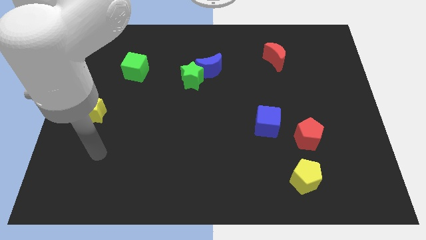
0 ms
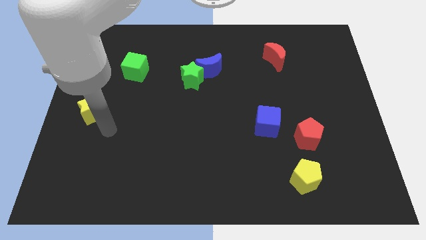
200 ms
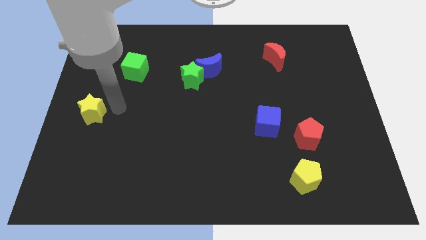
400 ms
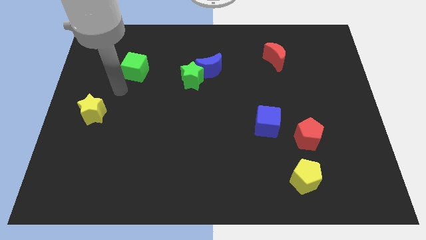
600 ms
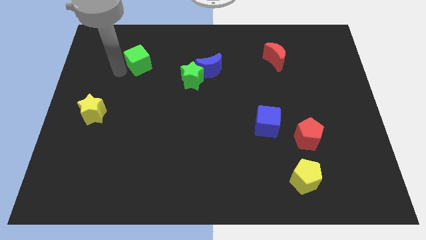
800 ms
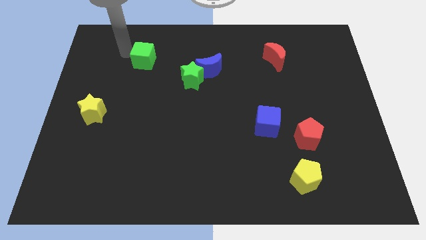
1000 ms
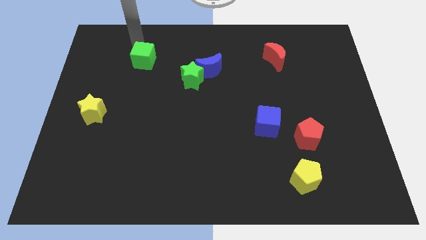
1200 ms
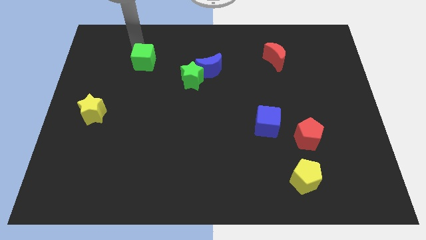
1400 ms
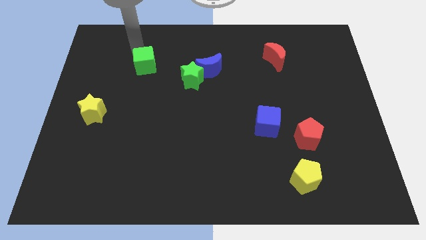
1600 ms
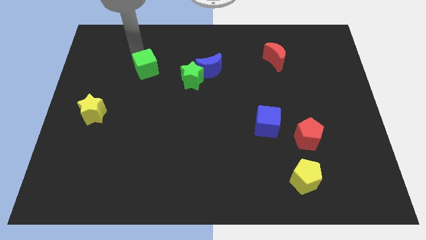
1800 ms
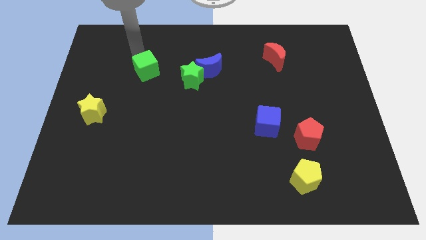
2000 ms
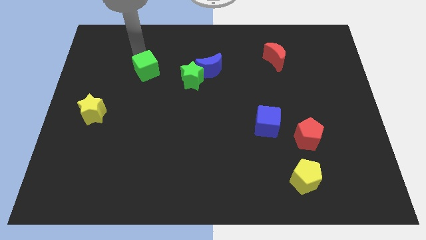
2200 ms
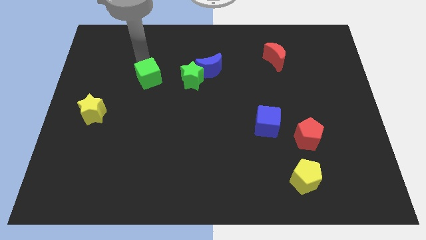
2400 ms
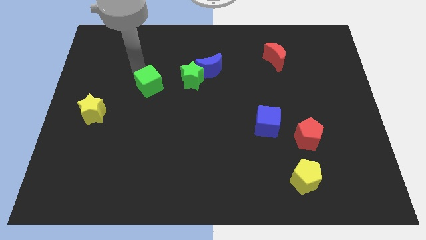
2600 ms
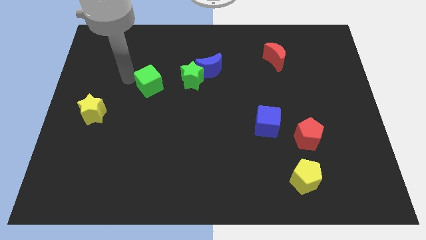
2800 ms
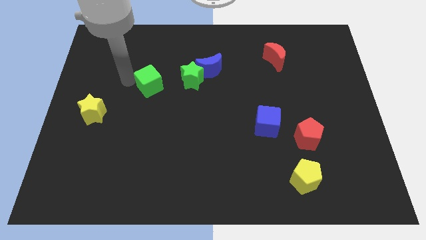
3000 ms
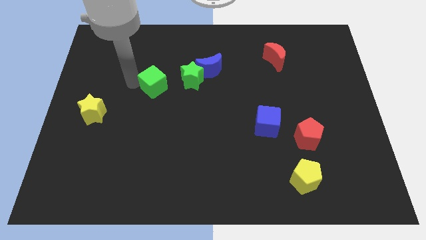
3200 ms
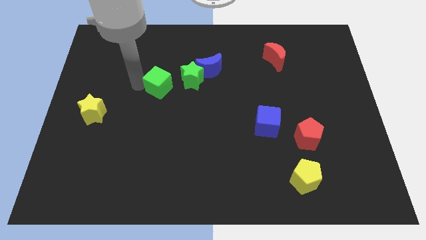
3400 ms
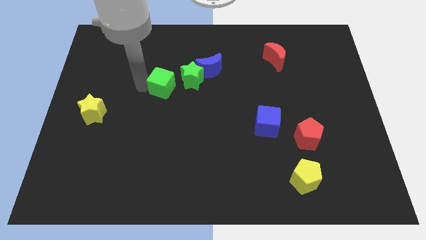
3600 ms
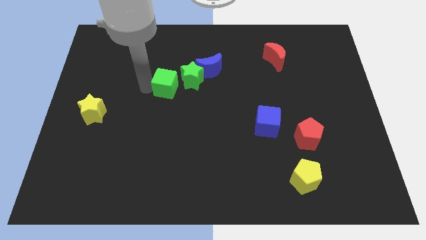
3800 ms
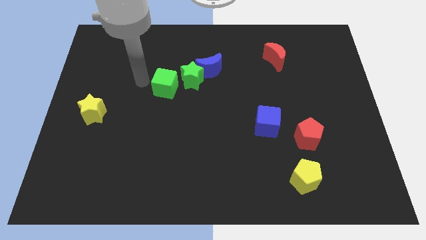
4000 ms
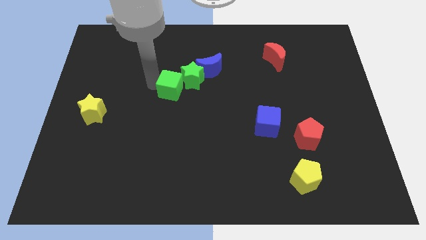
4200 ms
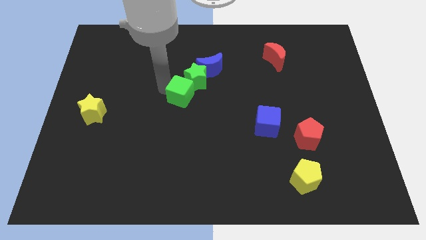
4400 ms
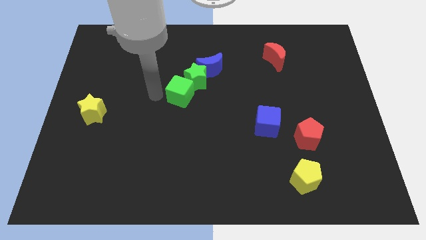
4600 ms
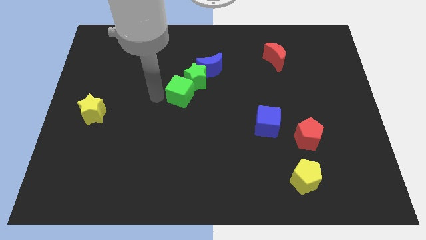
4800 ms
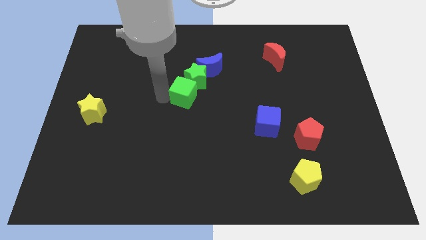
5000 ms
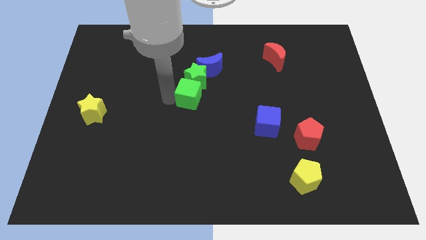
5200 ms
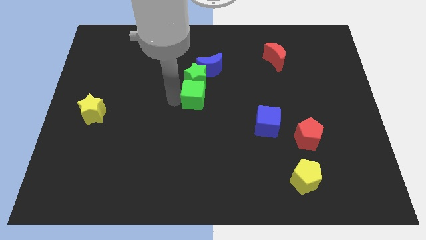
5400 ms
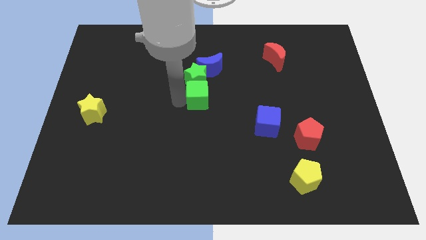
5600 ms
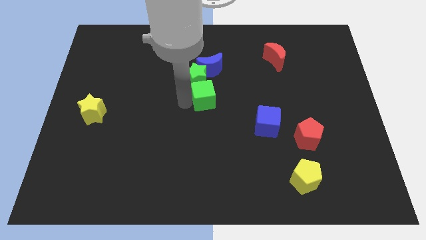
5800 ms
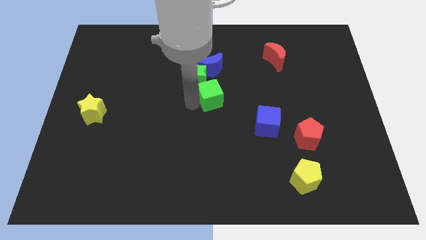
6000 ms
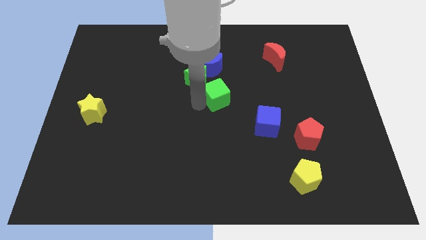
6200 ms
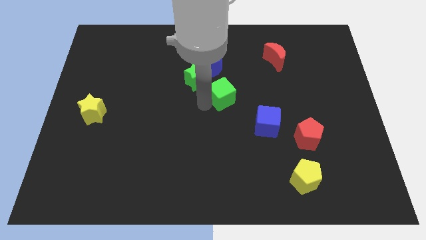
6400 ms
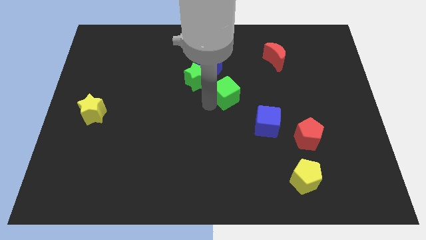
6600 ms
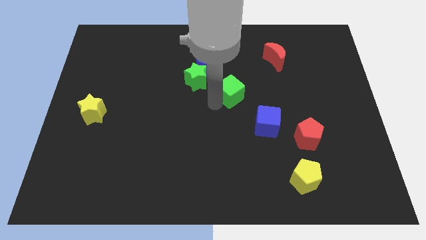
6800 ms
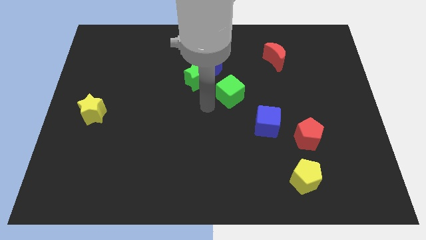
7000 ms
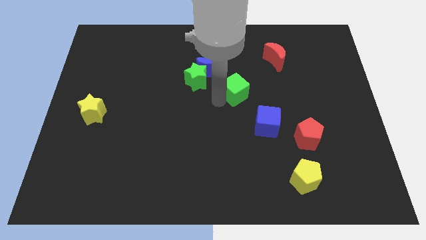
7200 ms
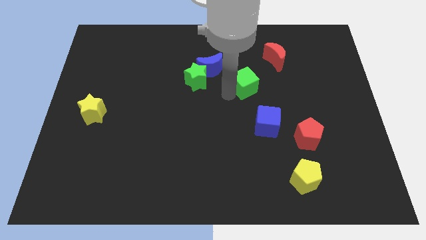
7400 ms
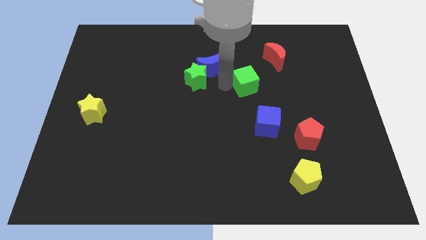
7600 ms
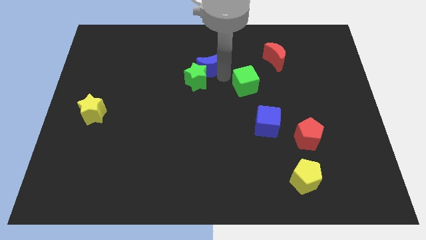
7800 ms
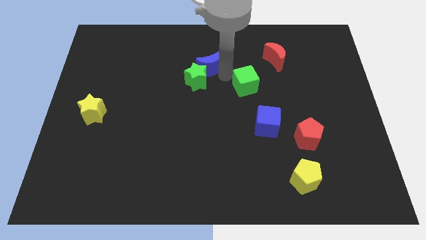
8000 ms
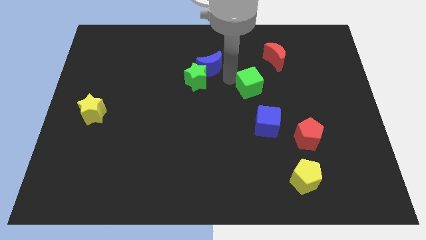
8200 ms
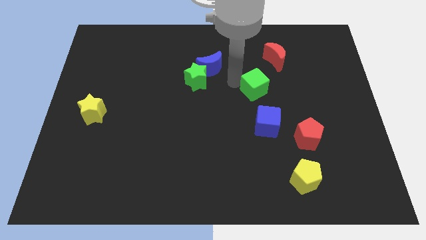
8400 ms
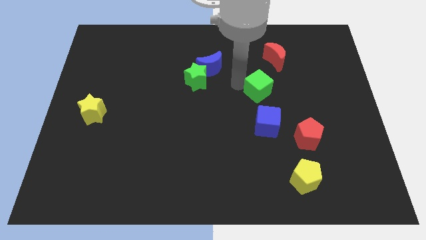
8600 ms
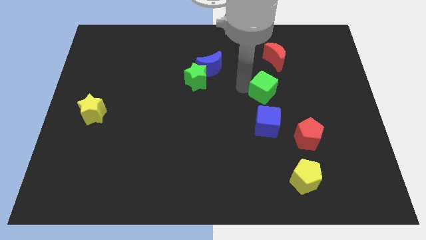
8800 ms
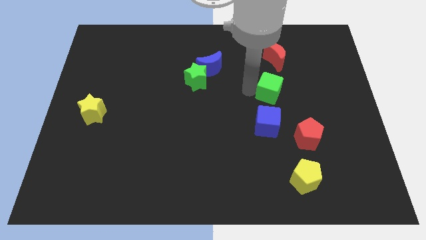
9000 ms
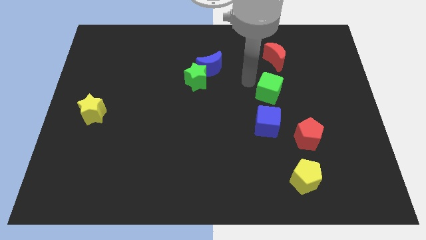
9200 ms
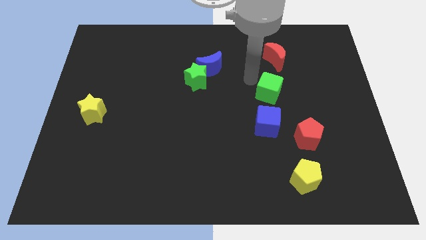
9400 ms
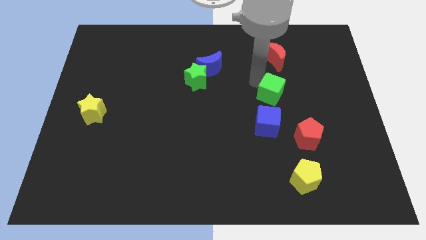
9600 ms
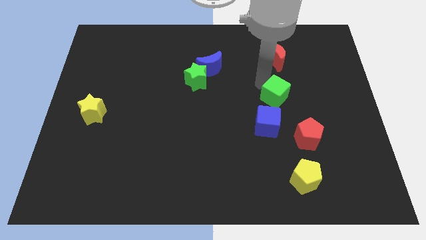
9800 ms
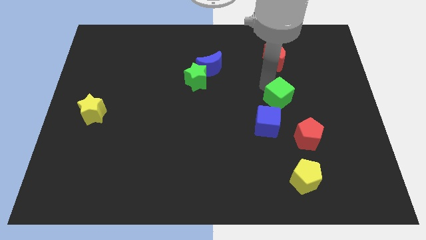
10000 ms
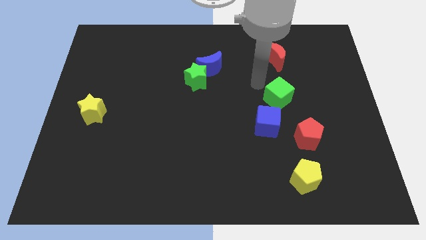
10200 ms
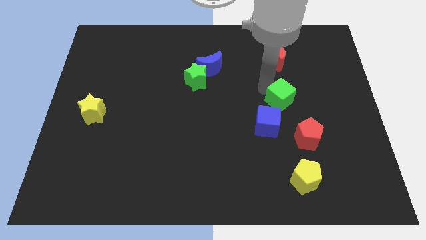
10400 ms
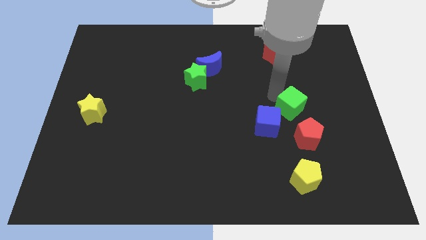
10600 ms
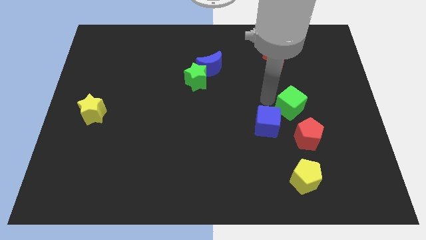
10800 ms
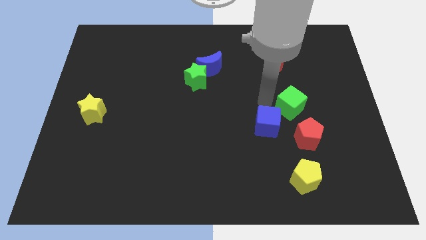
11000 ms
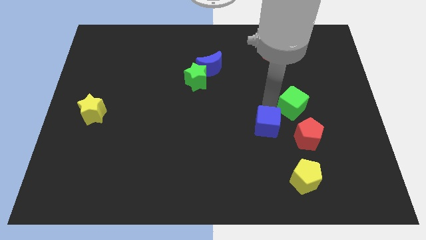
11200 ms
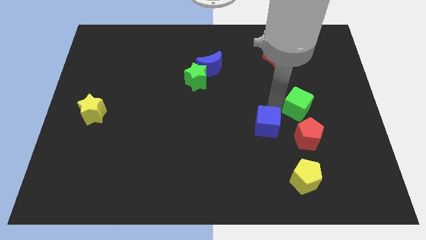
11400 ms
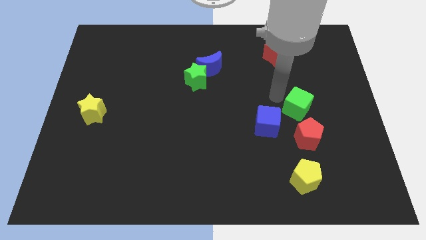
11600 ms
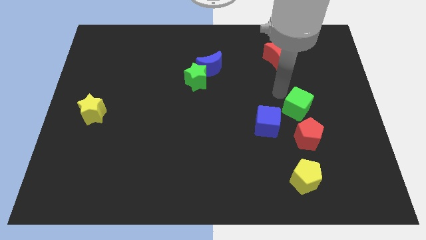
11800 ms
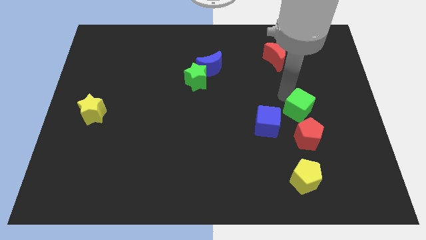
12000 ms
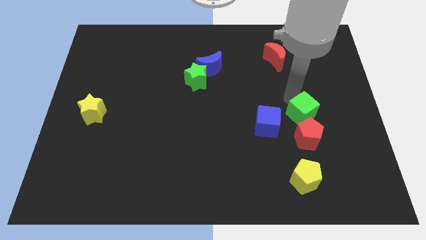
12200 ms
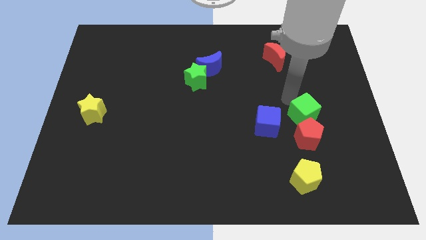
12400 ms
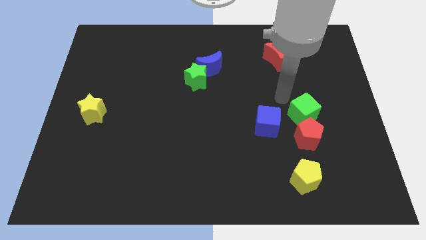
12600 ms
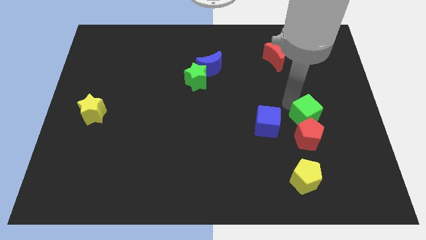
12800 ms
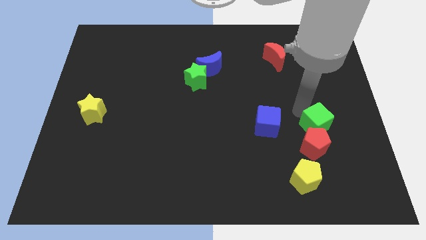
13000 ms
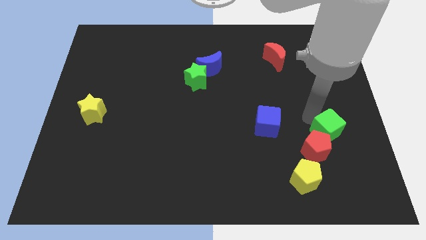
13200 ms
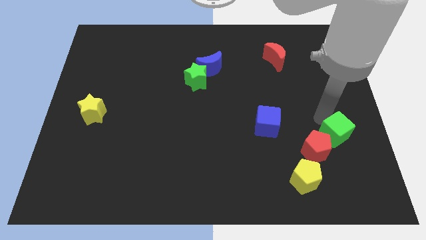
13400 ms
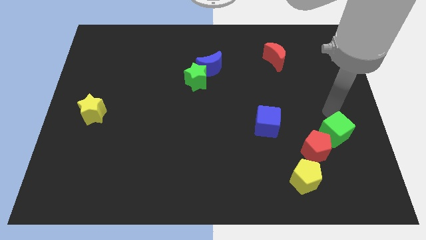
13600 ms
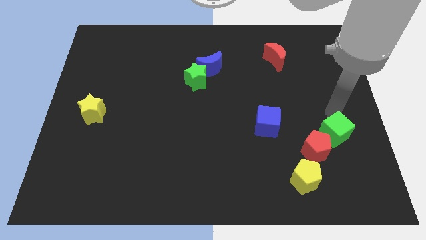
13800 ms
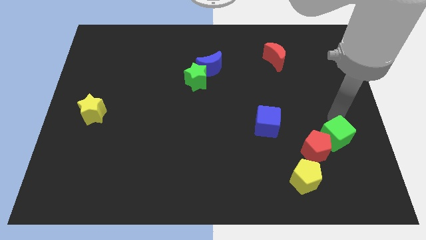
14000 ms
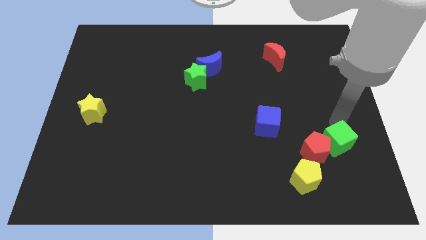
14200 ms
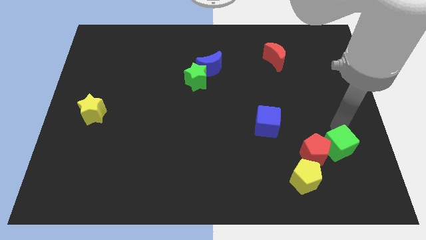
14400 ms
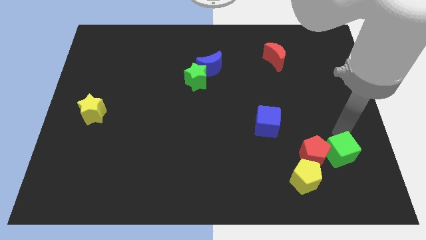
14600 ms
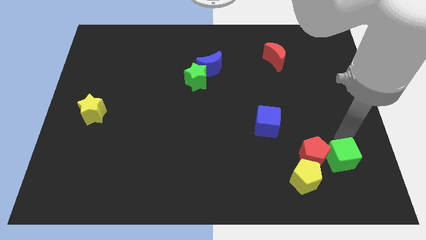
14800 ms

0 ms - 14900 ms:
push the green cube to the right of the yellow pentagon
